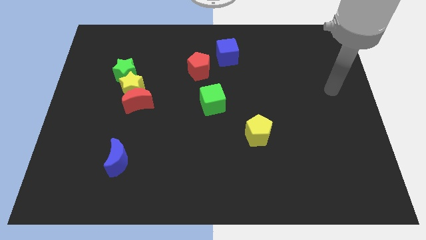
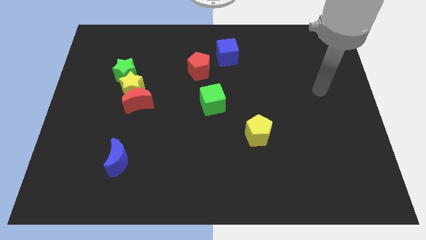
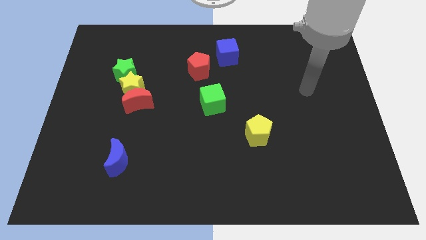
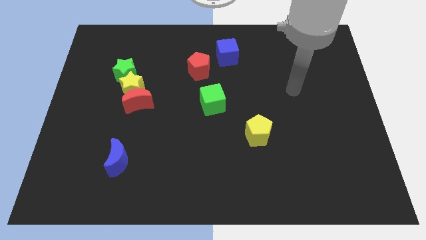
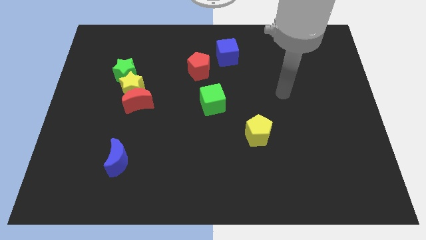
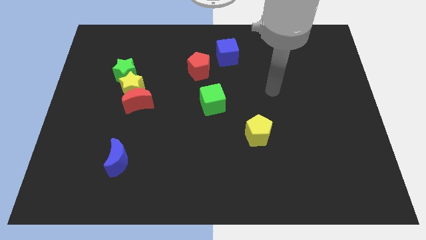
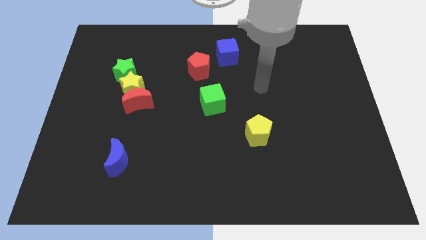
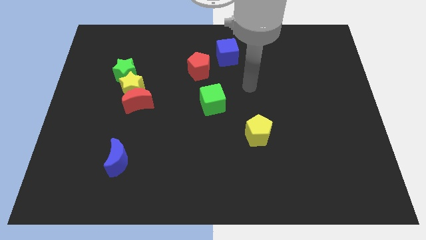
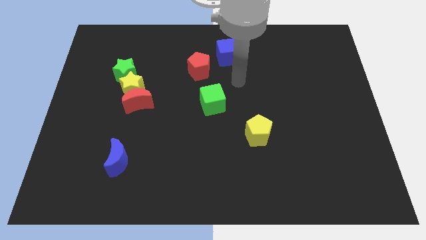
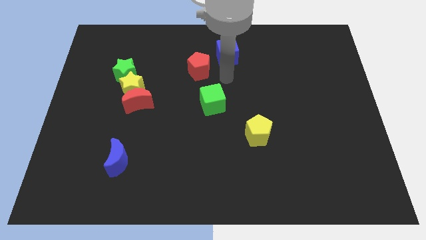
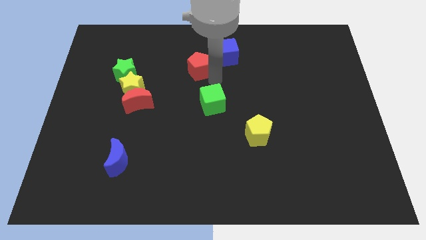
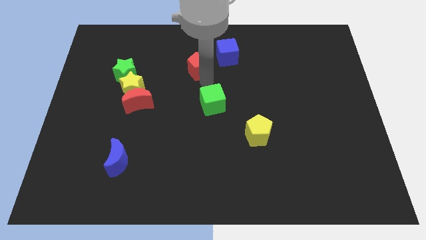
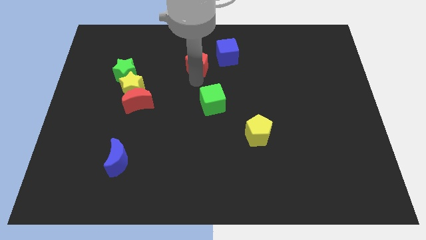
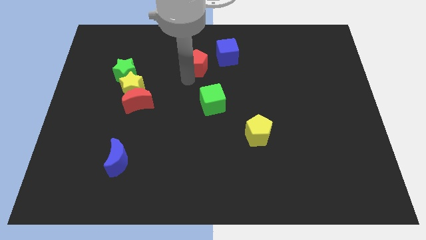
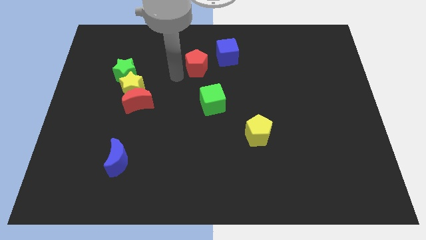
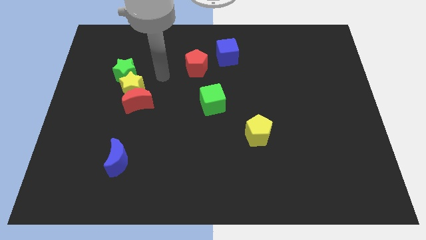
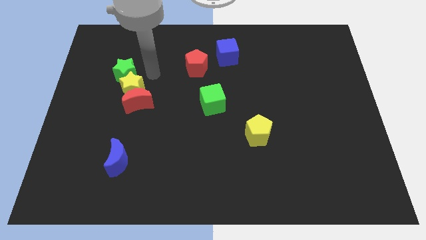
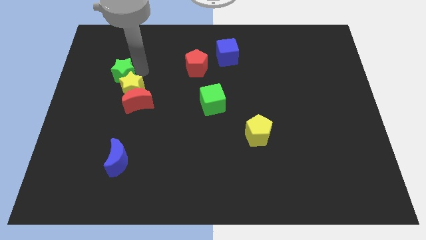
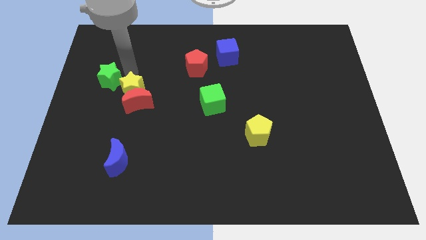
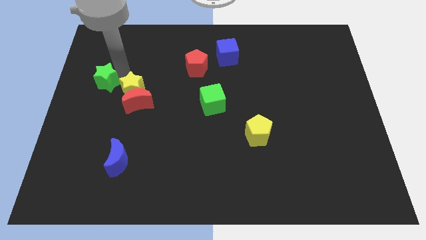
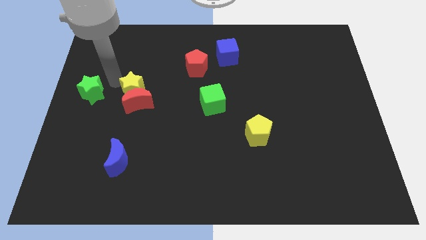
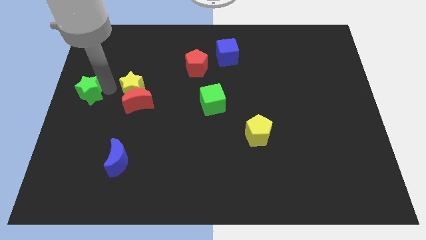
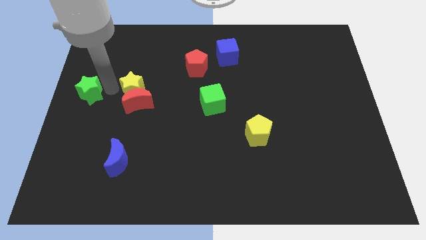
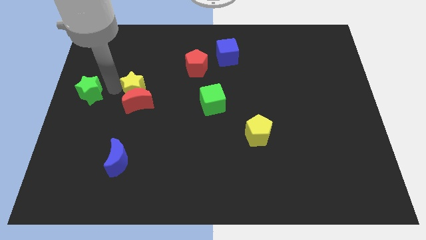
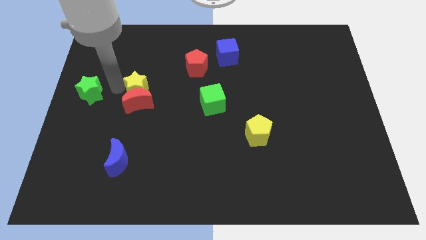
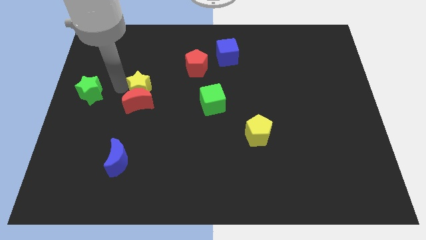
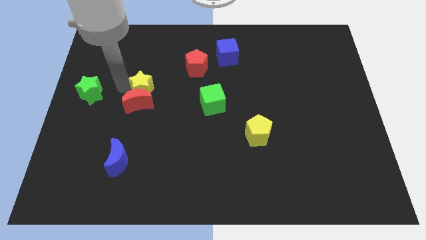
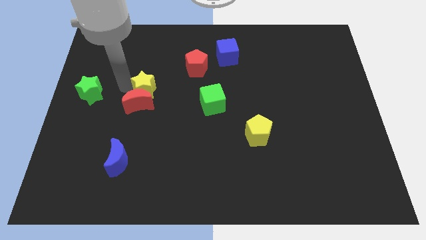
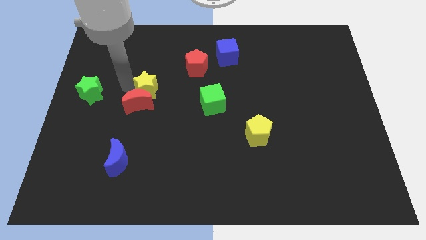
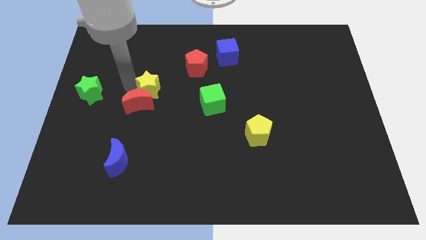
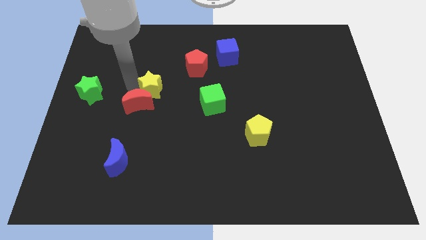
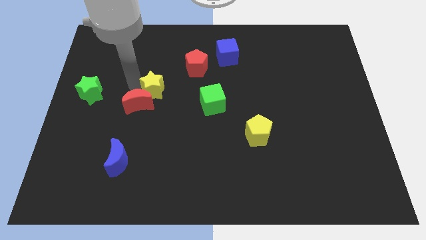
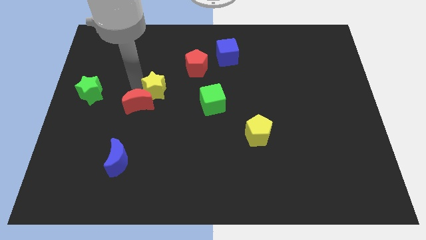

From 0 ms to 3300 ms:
pull the yellow star apart from the red moon and green star

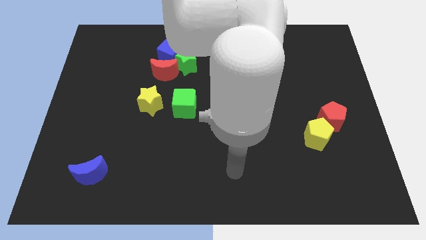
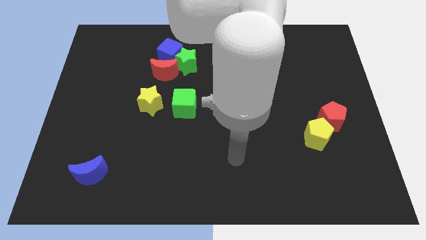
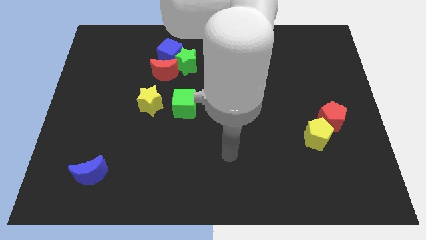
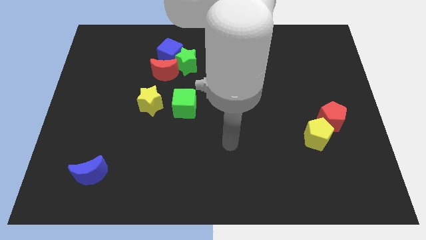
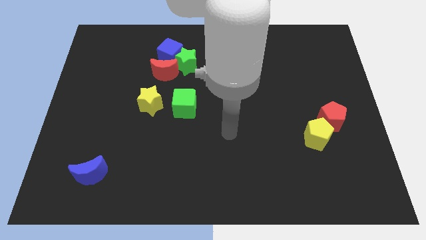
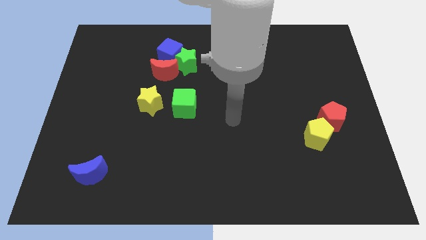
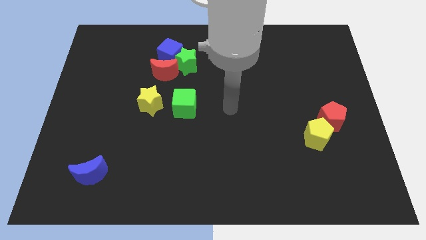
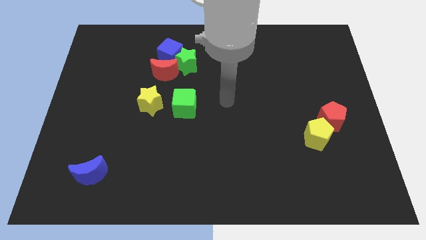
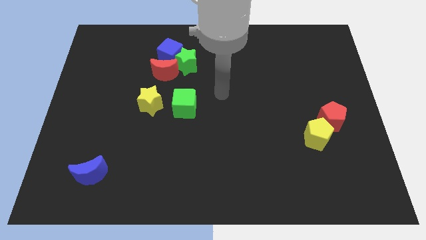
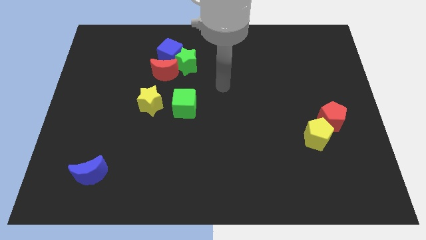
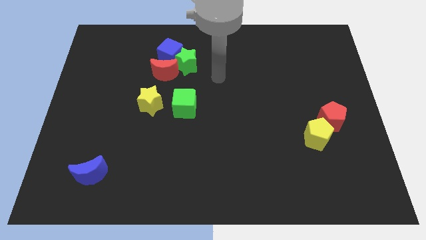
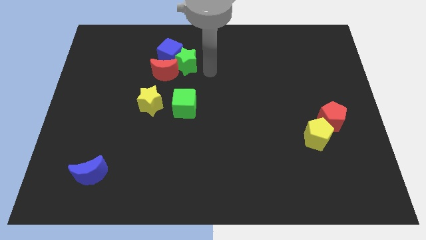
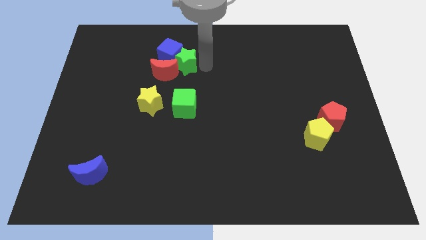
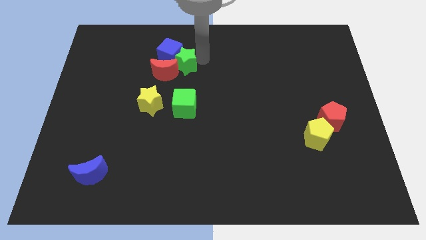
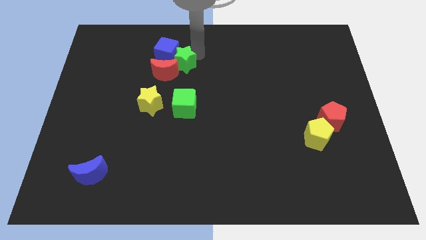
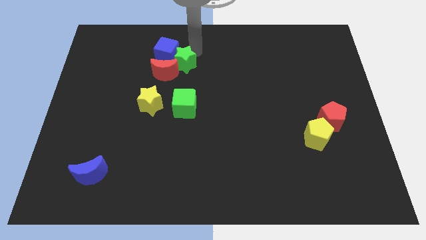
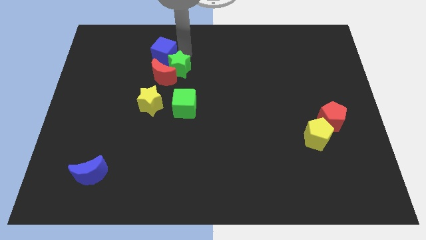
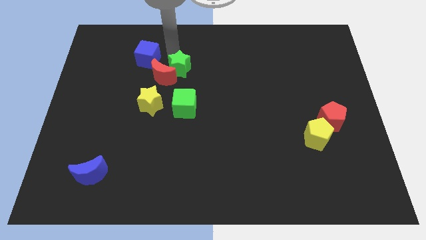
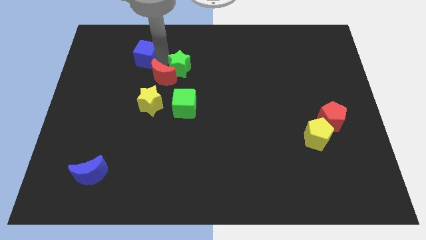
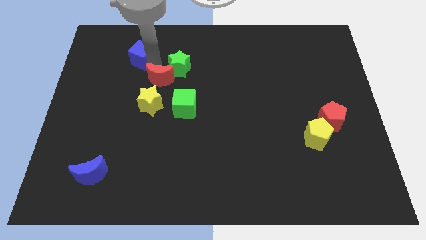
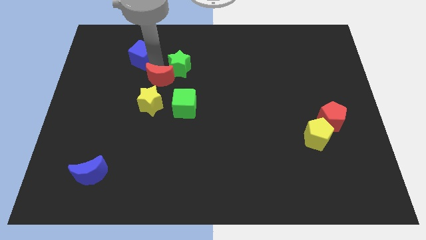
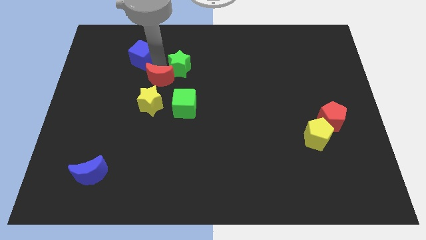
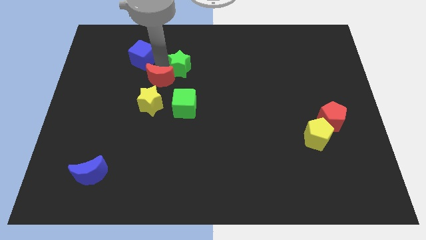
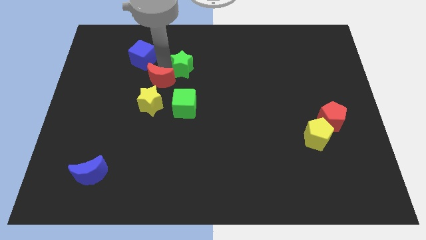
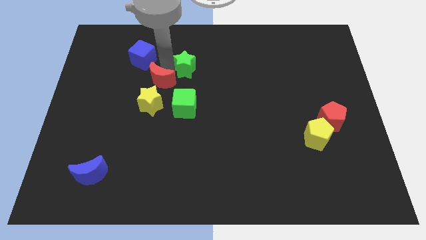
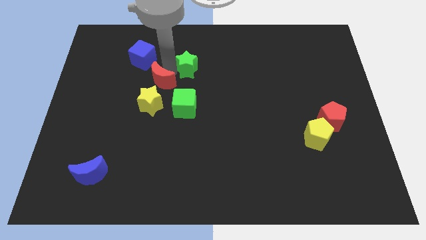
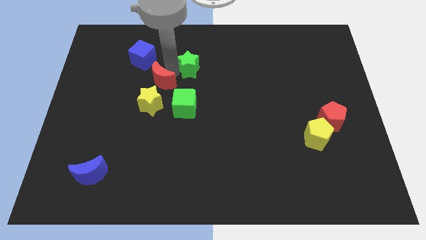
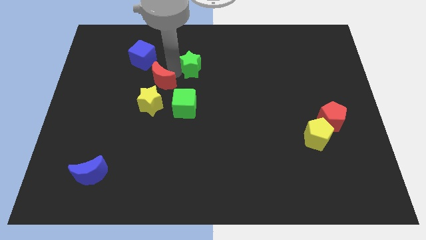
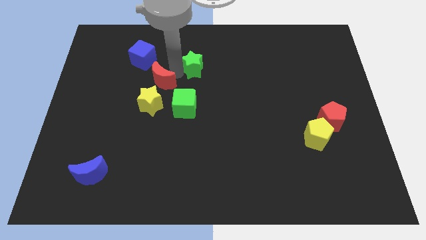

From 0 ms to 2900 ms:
separate the green star from the blue cube and red moon

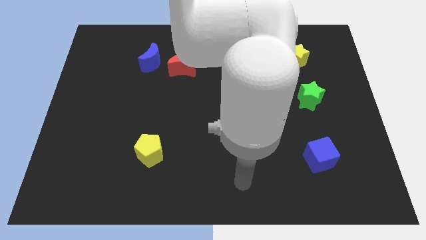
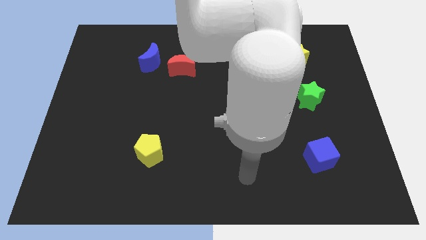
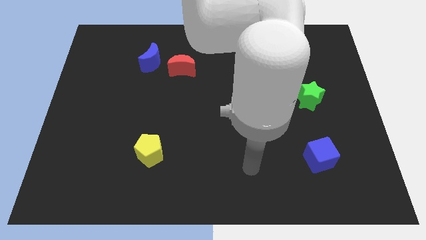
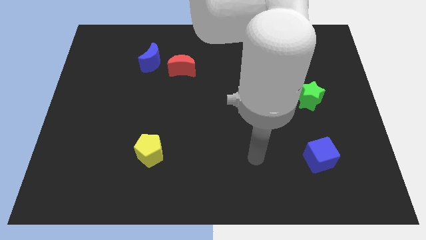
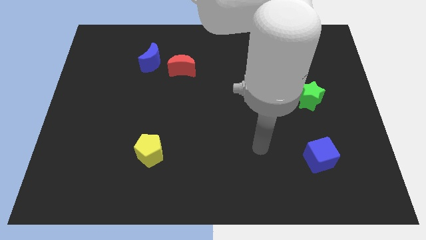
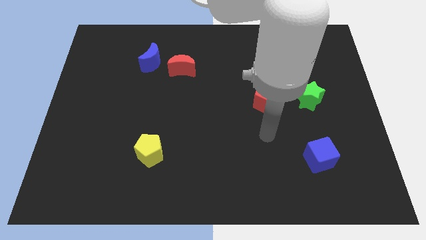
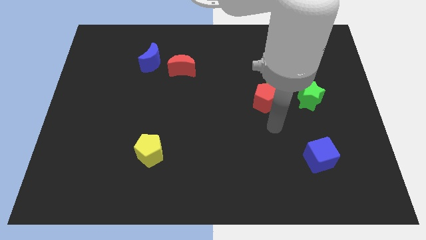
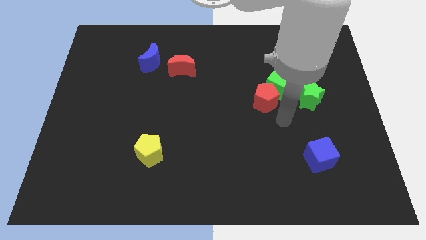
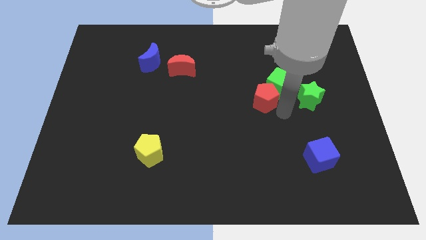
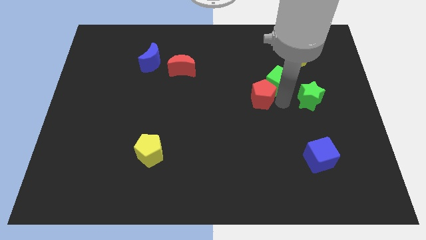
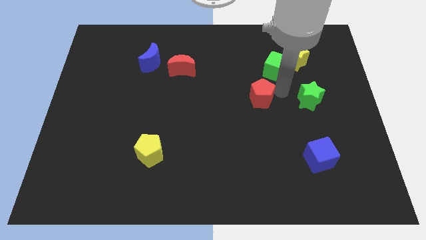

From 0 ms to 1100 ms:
move the red pentagon away from the green cube

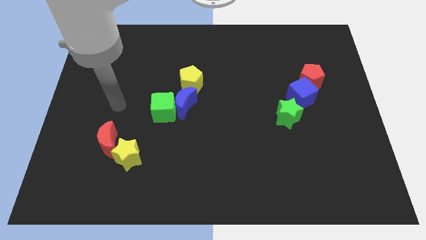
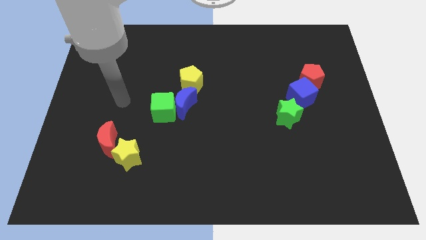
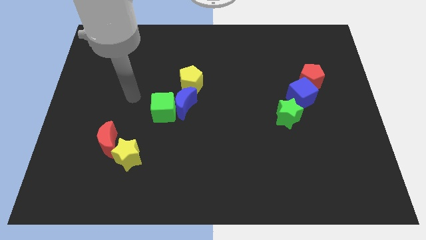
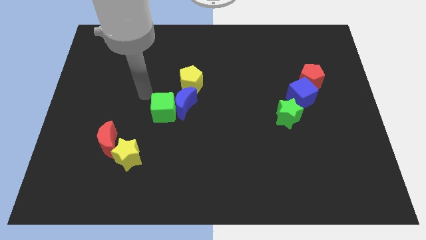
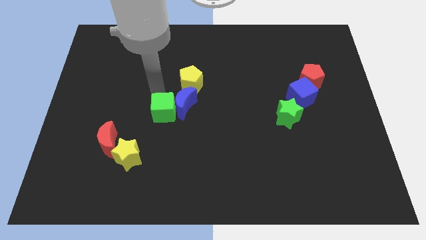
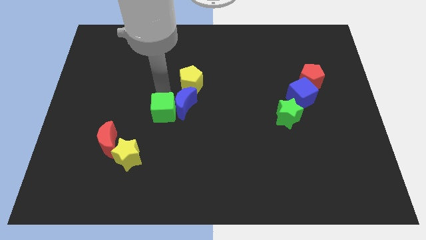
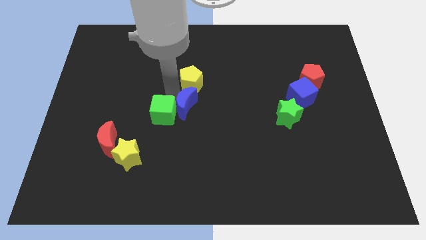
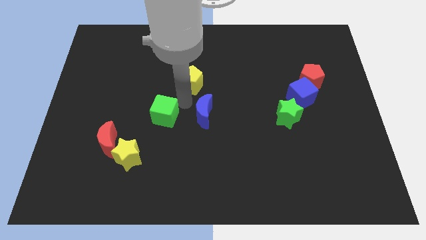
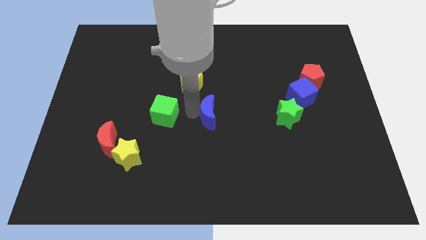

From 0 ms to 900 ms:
pull the green cube apart from the blue moon

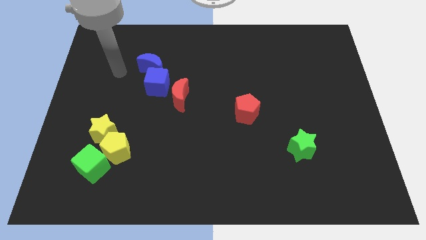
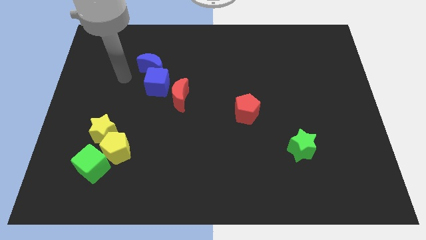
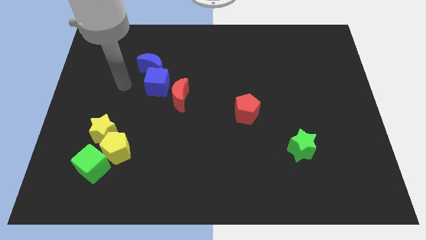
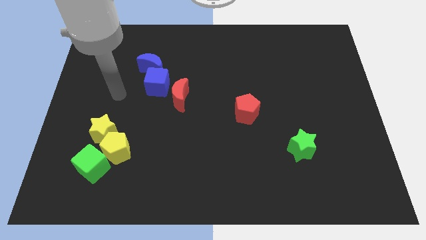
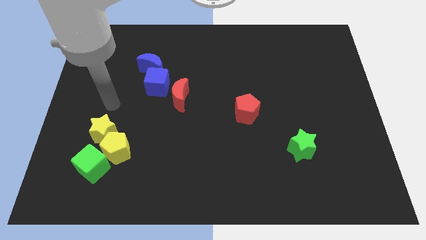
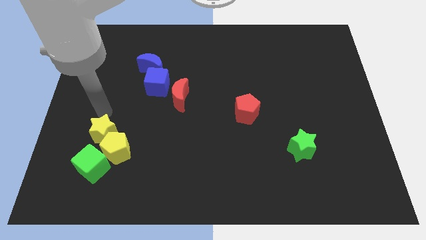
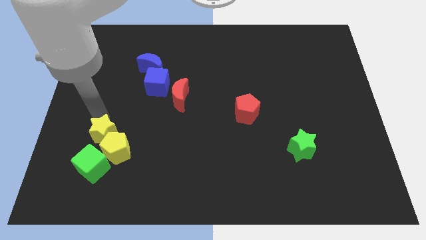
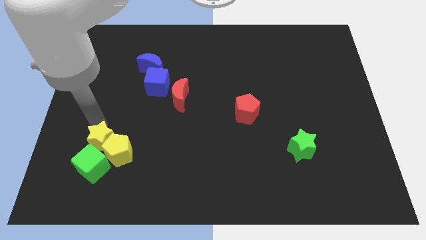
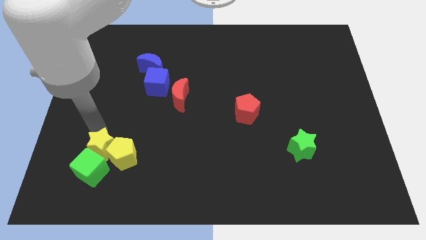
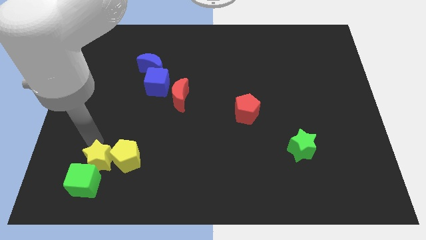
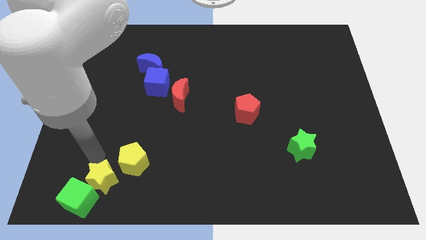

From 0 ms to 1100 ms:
separate the yellow pentagon from the yellow star and green cube
